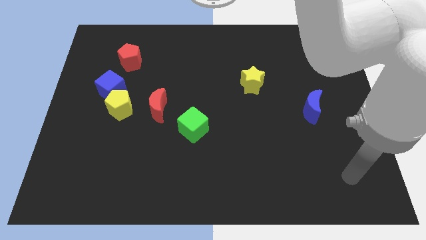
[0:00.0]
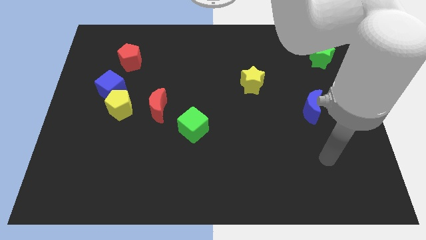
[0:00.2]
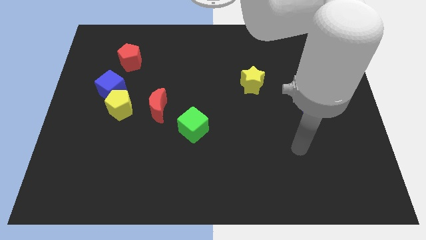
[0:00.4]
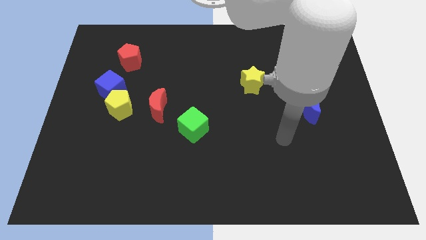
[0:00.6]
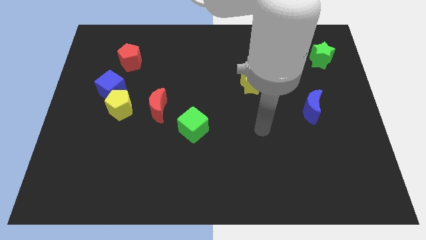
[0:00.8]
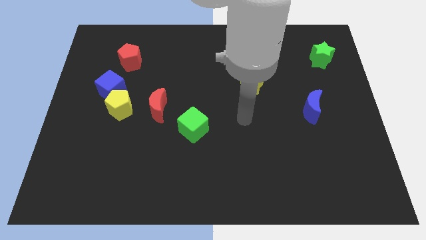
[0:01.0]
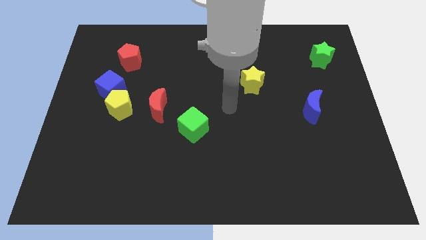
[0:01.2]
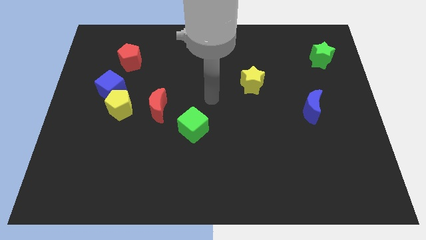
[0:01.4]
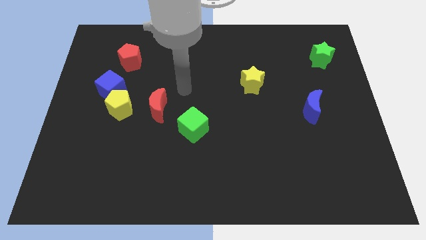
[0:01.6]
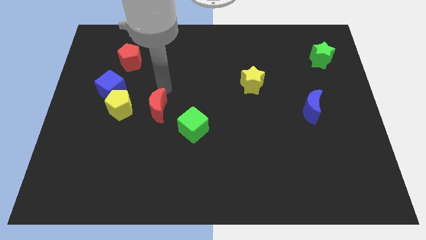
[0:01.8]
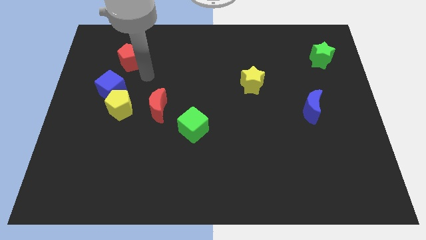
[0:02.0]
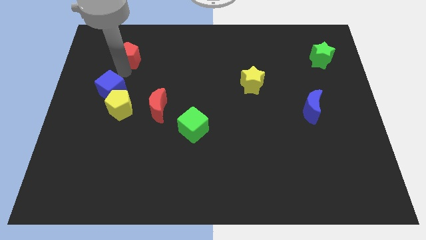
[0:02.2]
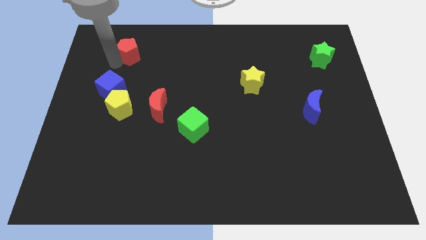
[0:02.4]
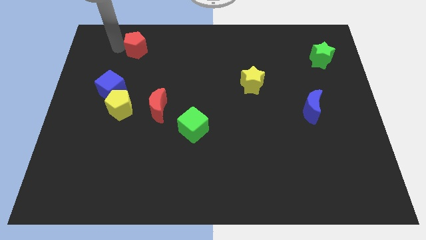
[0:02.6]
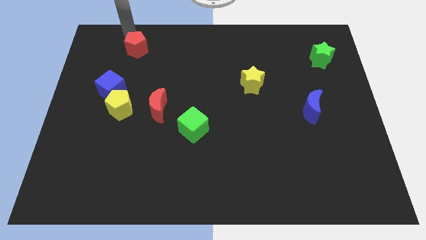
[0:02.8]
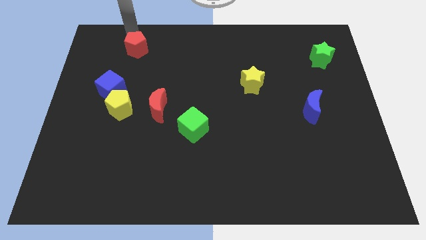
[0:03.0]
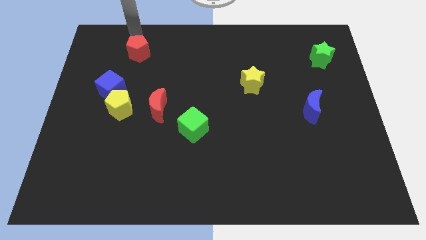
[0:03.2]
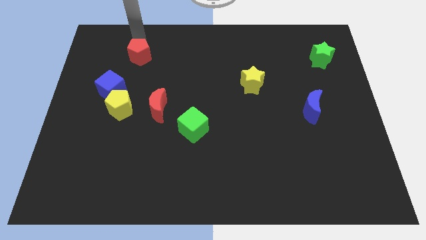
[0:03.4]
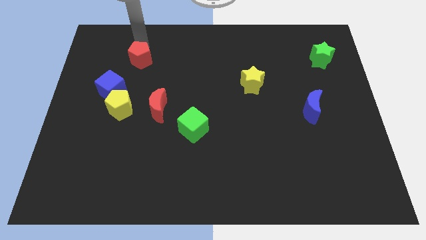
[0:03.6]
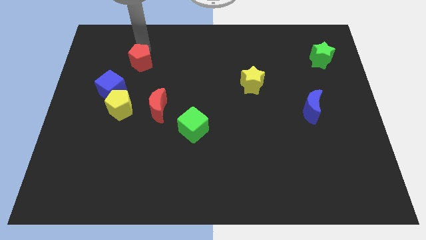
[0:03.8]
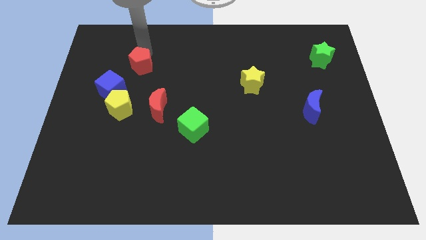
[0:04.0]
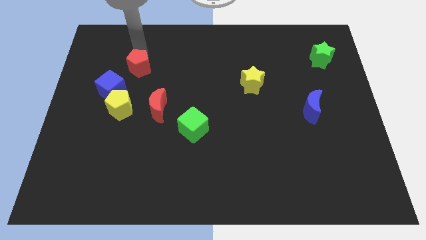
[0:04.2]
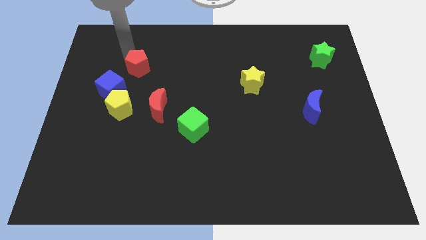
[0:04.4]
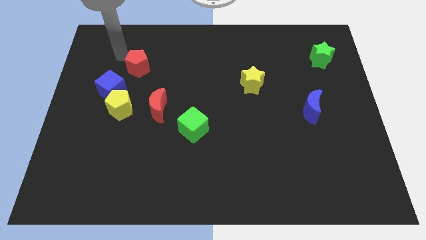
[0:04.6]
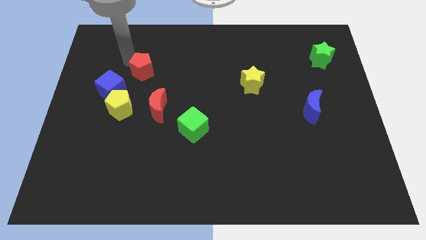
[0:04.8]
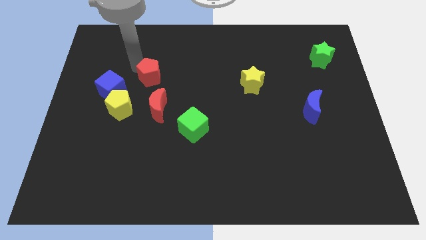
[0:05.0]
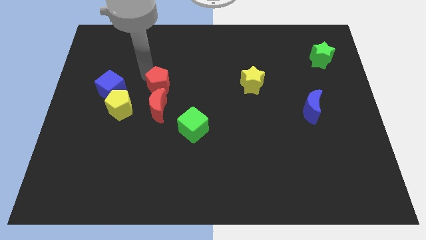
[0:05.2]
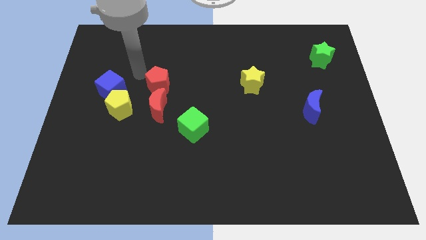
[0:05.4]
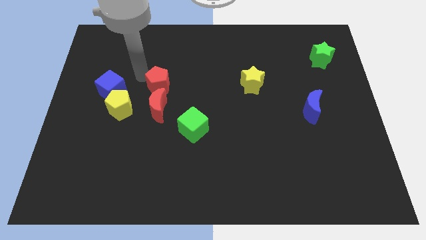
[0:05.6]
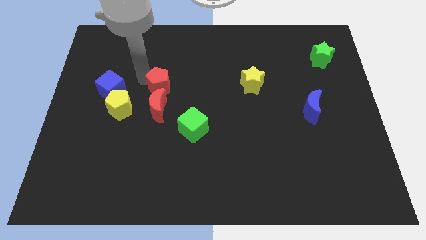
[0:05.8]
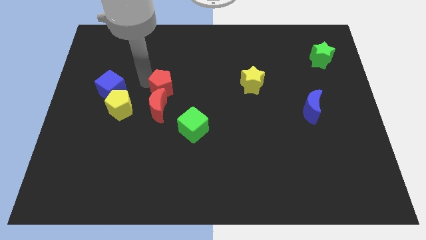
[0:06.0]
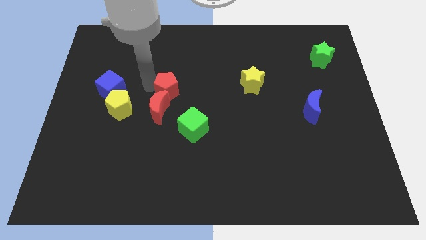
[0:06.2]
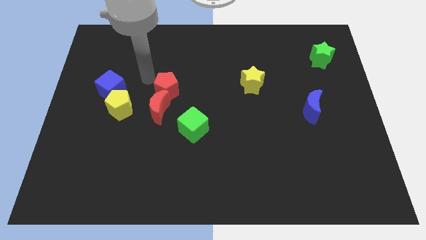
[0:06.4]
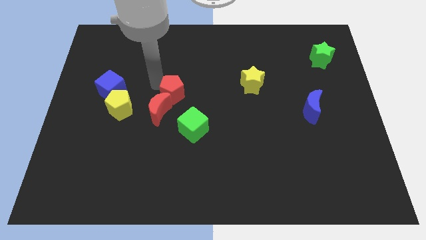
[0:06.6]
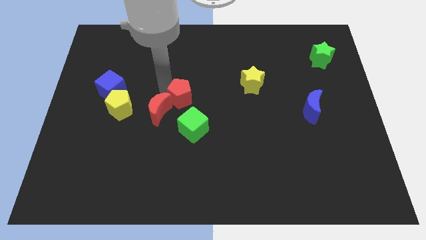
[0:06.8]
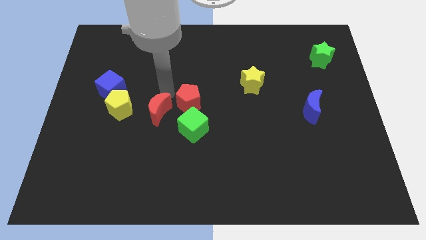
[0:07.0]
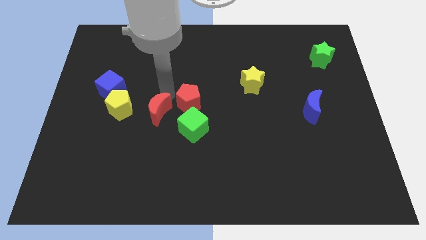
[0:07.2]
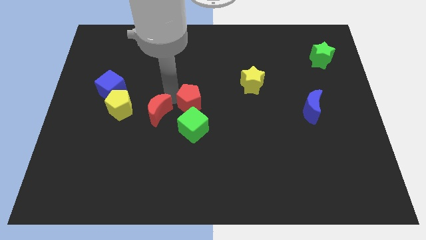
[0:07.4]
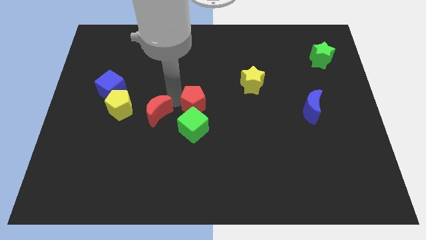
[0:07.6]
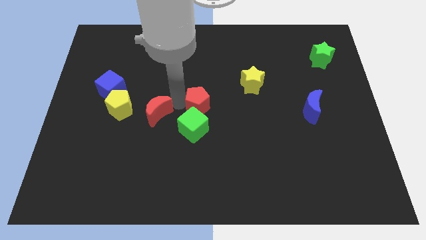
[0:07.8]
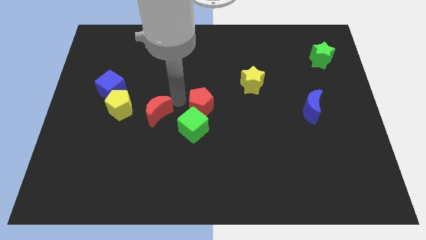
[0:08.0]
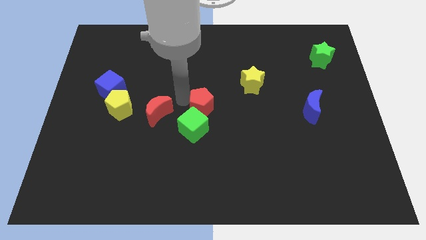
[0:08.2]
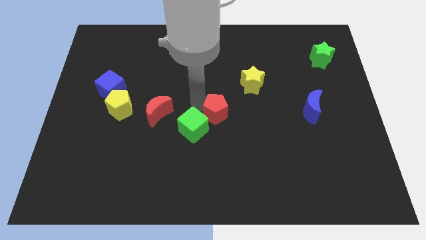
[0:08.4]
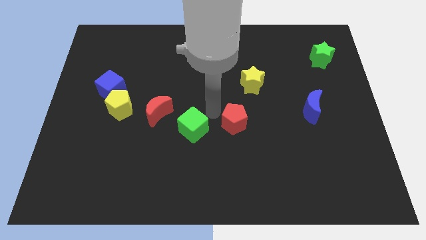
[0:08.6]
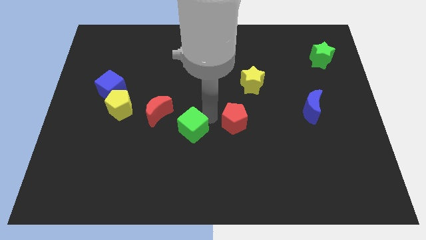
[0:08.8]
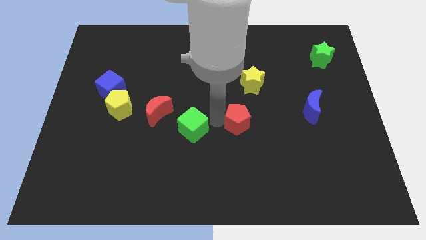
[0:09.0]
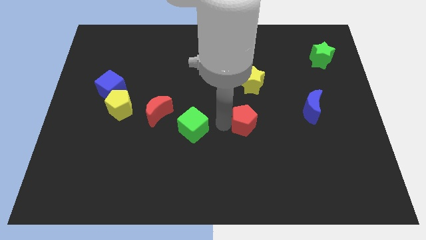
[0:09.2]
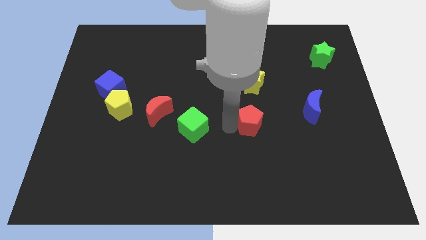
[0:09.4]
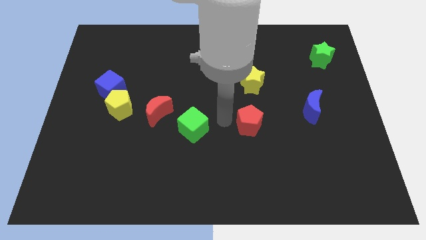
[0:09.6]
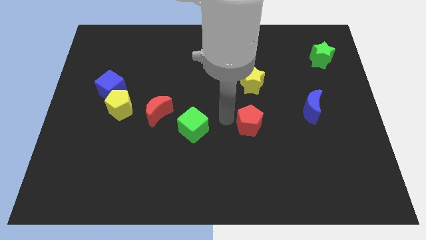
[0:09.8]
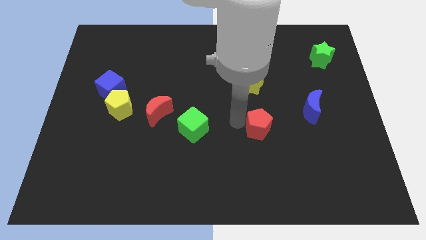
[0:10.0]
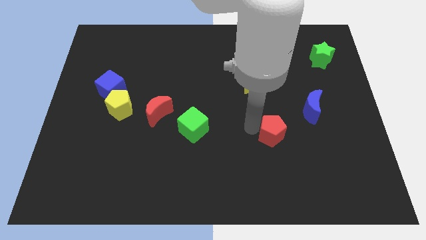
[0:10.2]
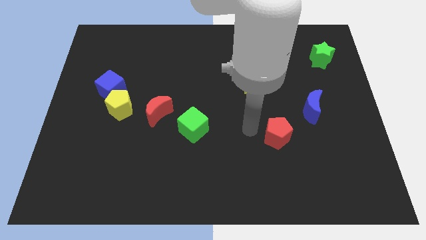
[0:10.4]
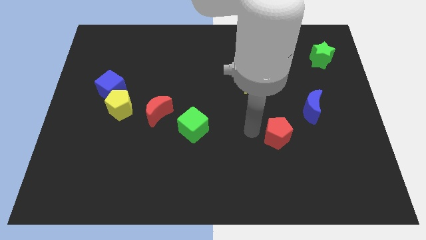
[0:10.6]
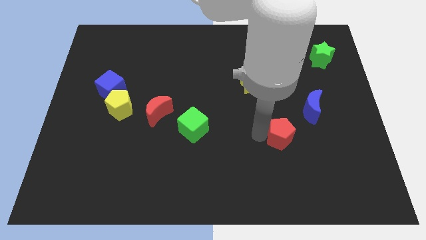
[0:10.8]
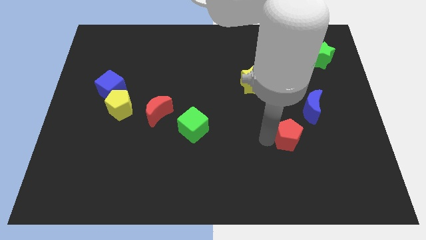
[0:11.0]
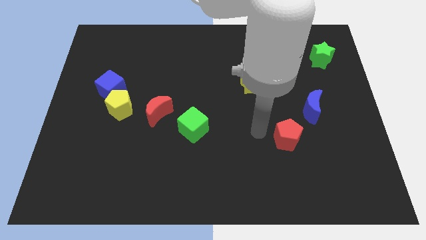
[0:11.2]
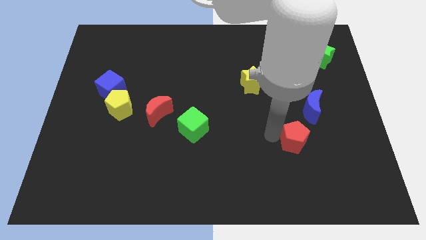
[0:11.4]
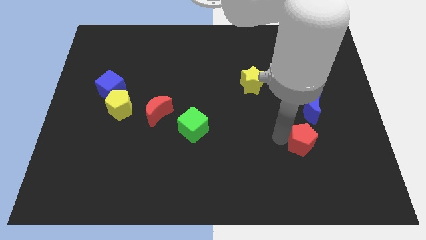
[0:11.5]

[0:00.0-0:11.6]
push the red pentagon to the bottom side of the blue moon

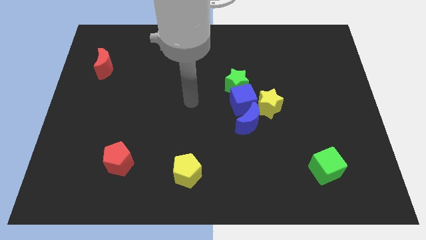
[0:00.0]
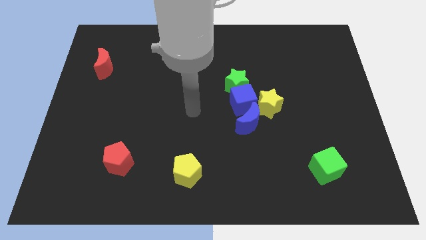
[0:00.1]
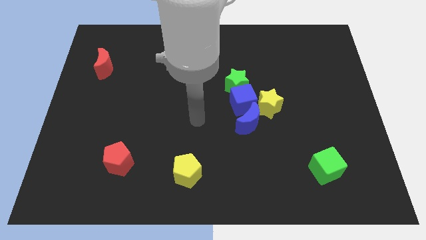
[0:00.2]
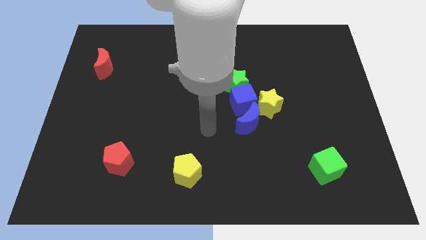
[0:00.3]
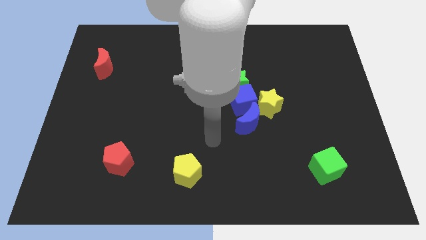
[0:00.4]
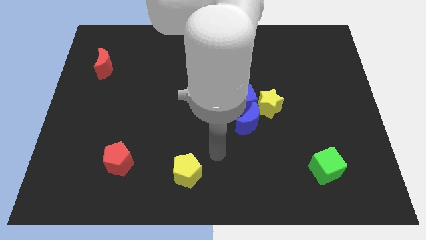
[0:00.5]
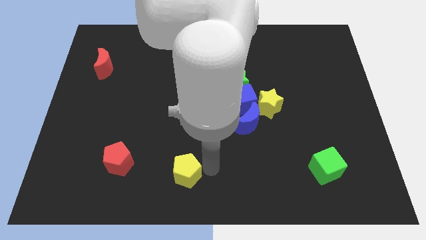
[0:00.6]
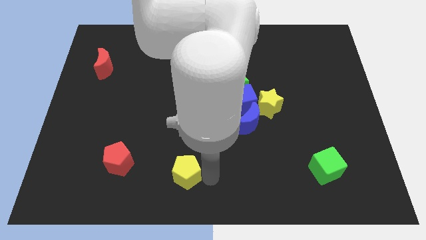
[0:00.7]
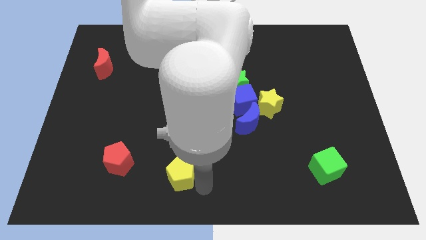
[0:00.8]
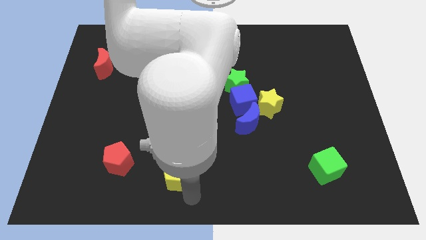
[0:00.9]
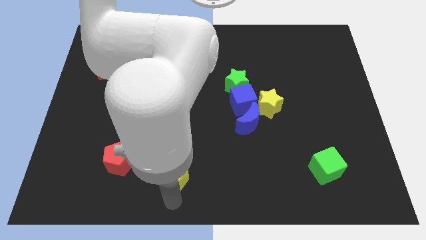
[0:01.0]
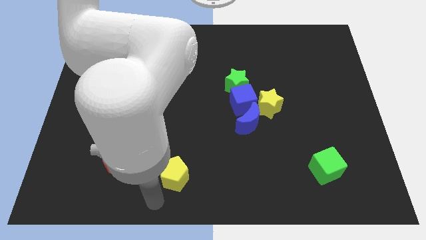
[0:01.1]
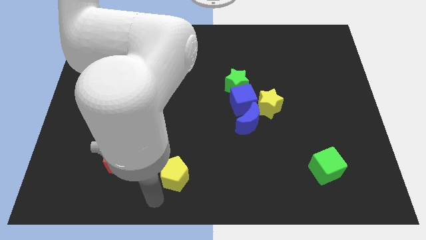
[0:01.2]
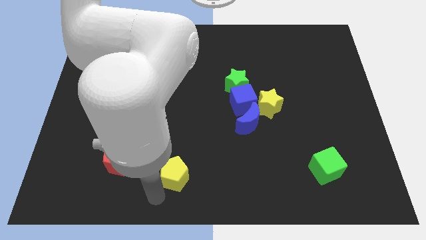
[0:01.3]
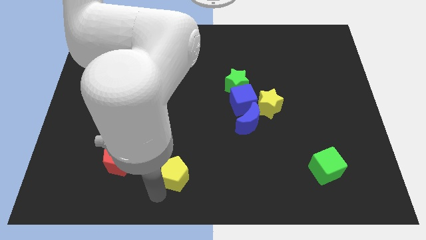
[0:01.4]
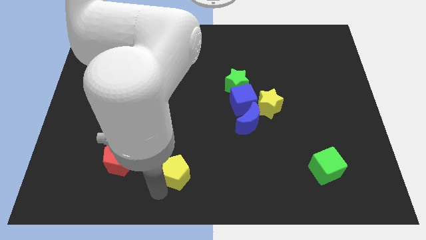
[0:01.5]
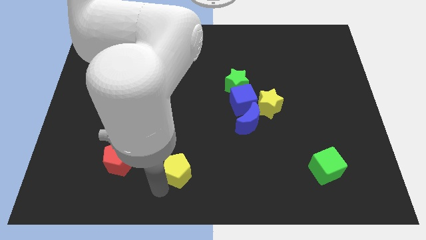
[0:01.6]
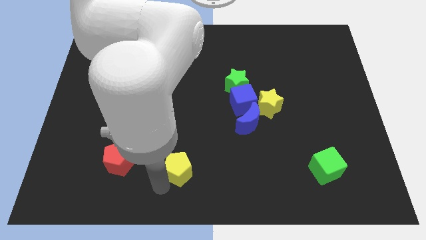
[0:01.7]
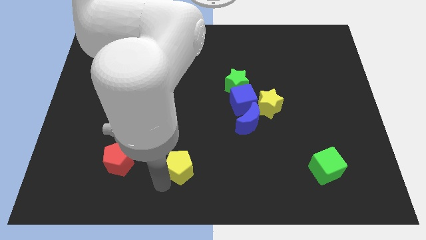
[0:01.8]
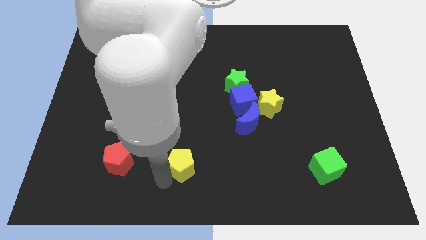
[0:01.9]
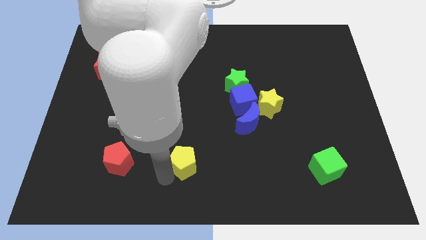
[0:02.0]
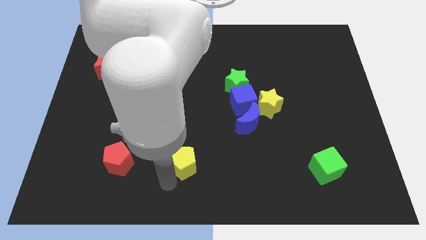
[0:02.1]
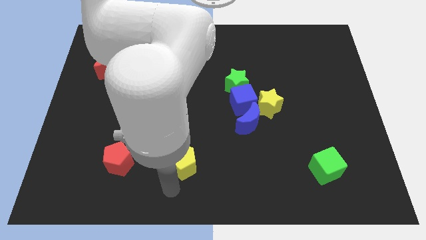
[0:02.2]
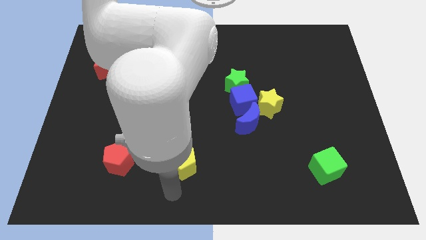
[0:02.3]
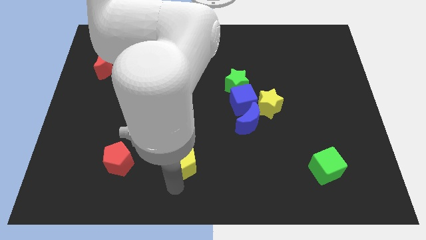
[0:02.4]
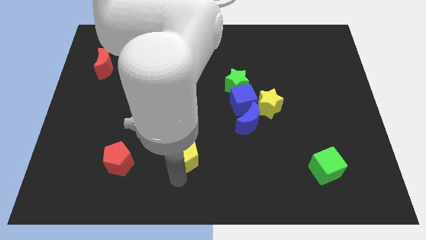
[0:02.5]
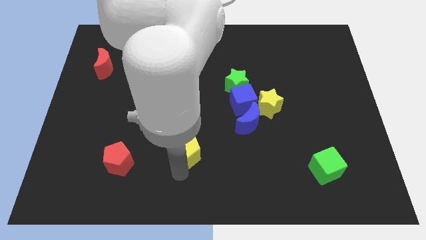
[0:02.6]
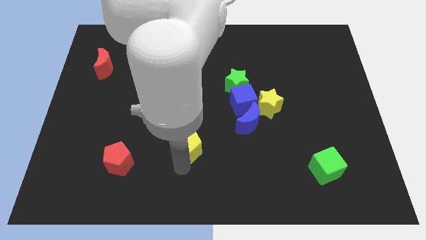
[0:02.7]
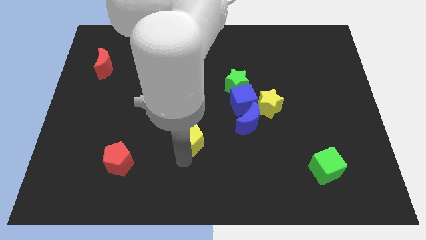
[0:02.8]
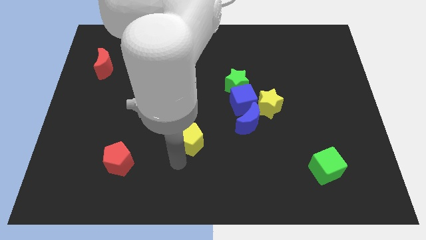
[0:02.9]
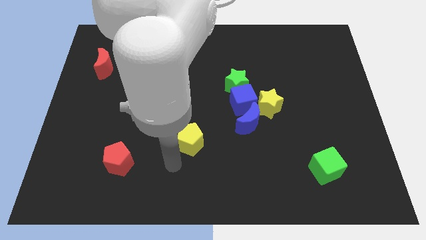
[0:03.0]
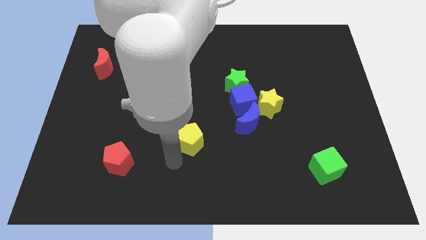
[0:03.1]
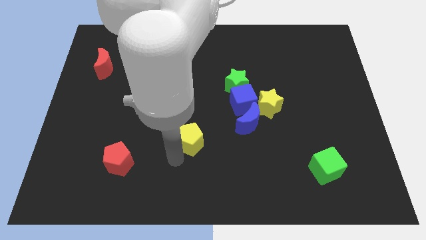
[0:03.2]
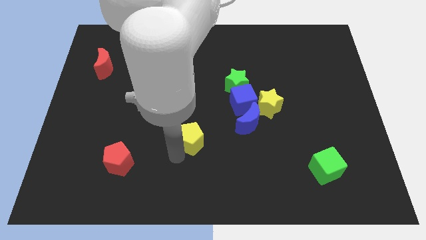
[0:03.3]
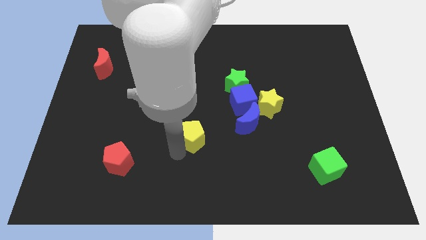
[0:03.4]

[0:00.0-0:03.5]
move the yellow pentagon left of the blue moon
